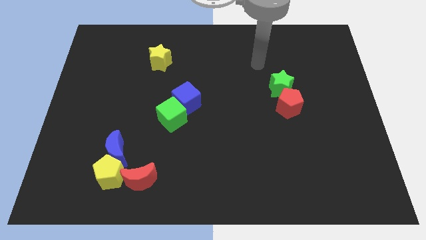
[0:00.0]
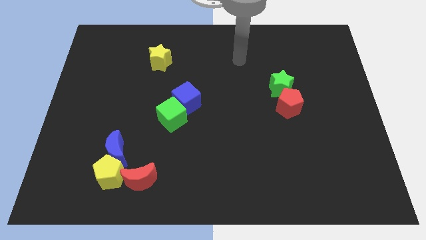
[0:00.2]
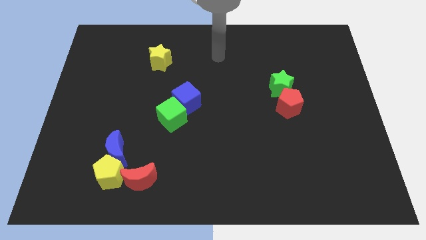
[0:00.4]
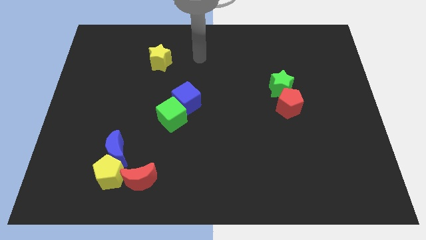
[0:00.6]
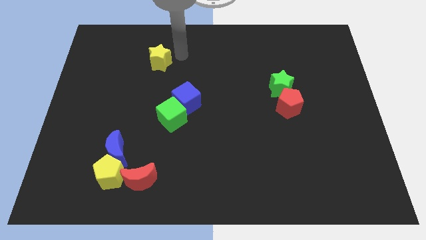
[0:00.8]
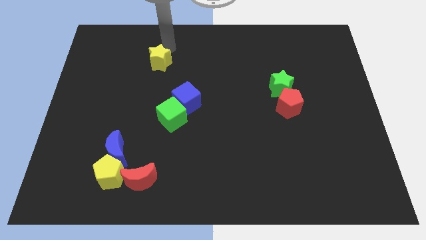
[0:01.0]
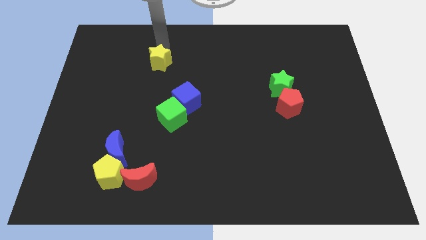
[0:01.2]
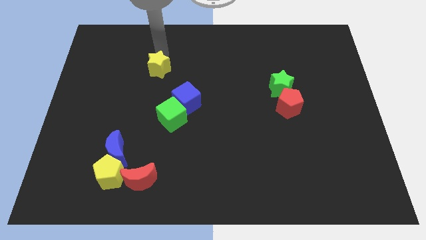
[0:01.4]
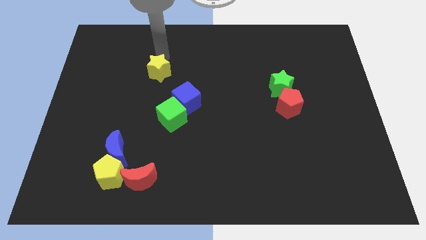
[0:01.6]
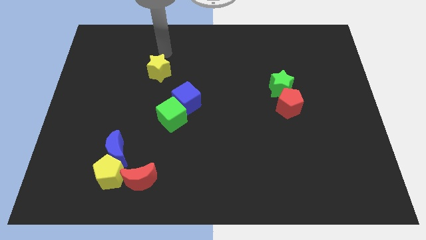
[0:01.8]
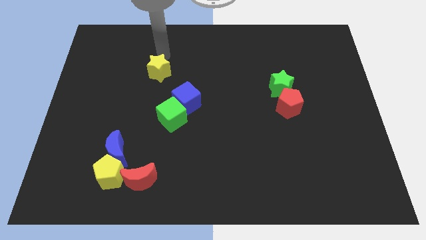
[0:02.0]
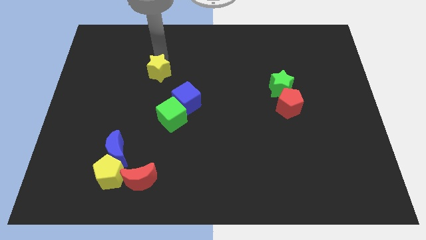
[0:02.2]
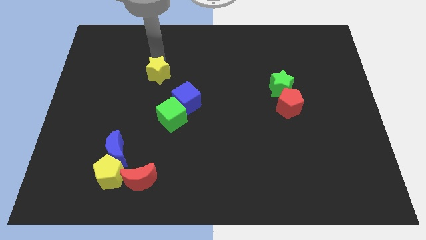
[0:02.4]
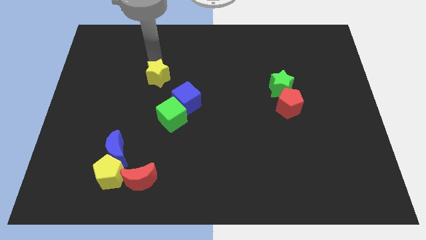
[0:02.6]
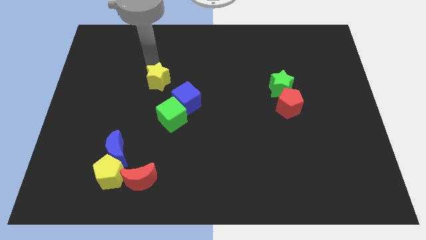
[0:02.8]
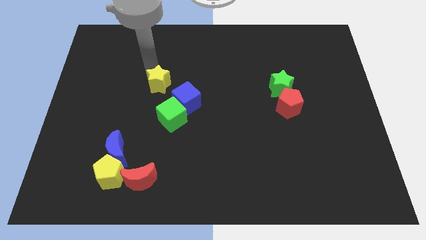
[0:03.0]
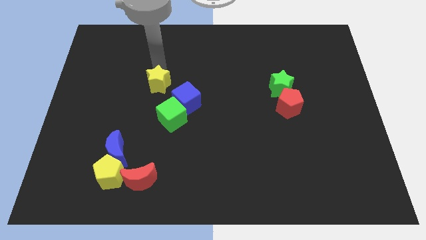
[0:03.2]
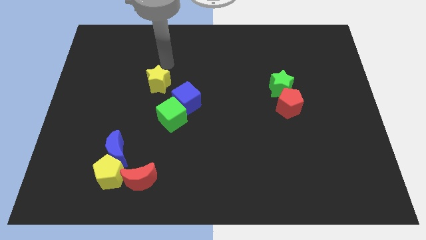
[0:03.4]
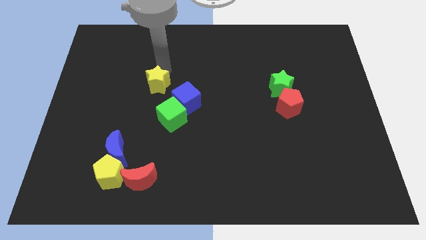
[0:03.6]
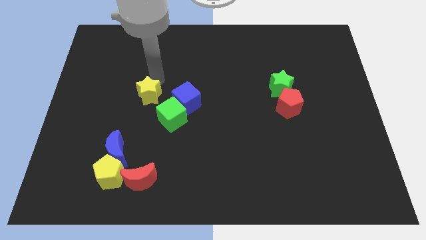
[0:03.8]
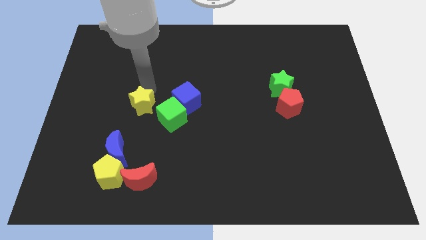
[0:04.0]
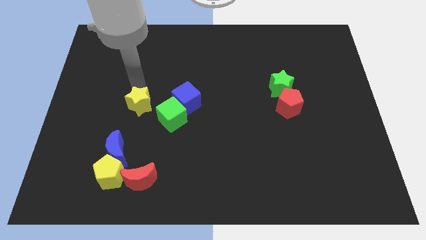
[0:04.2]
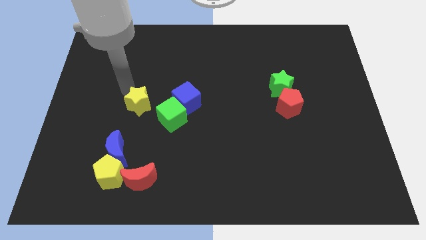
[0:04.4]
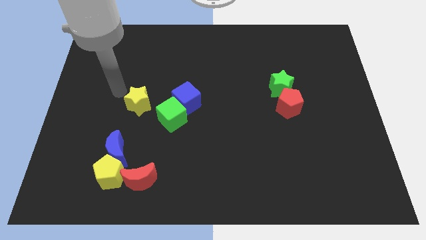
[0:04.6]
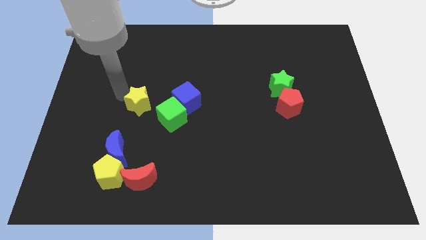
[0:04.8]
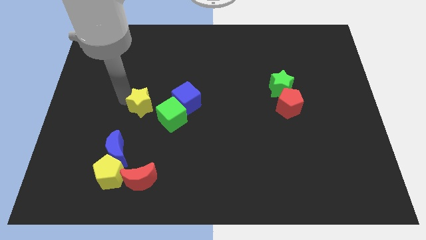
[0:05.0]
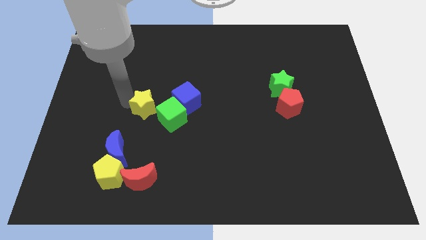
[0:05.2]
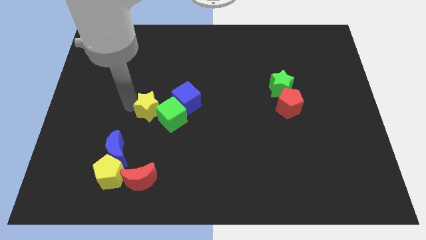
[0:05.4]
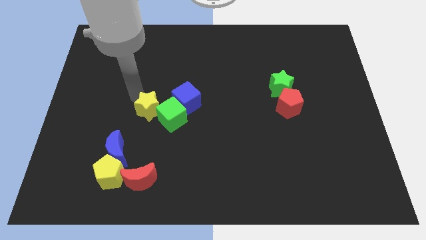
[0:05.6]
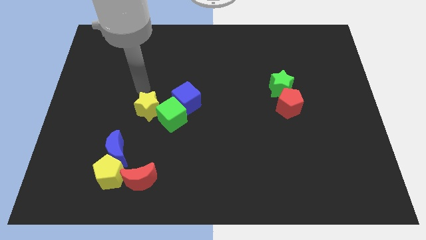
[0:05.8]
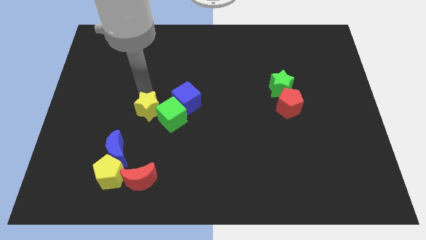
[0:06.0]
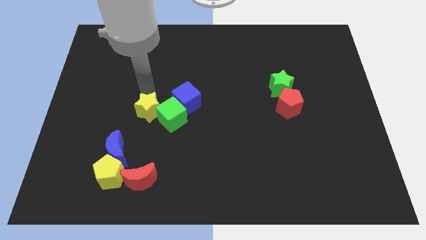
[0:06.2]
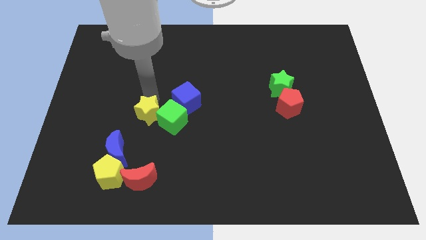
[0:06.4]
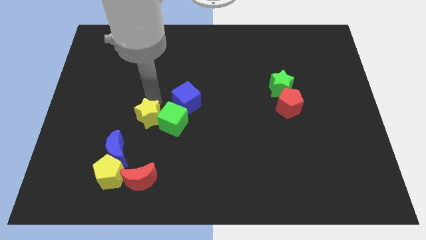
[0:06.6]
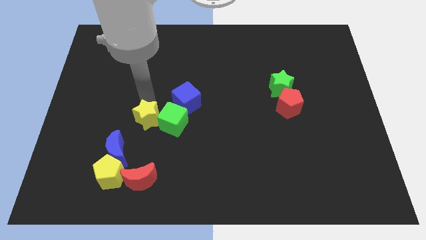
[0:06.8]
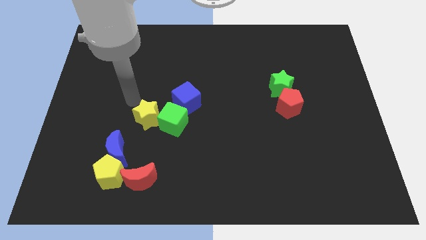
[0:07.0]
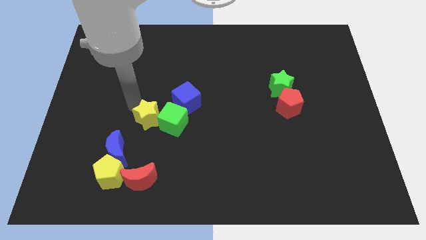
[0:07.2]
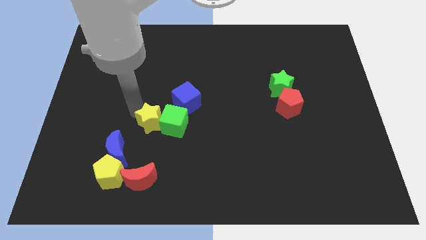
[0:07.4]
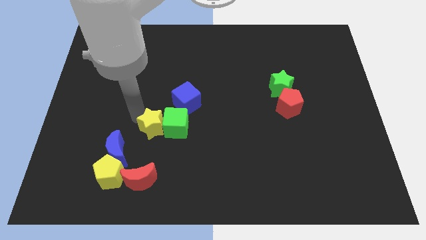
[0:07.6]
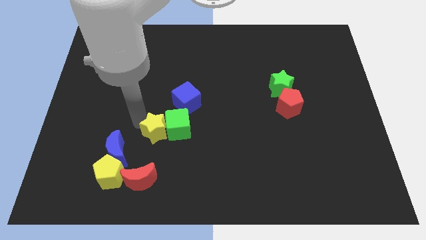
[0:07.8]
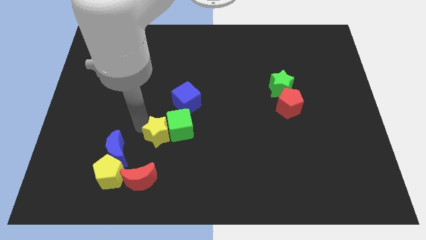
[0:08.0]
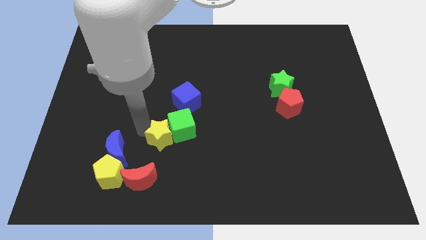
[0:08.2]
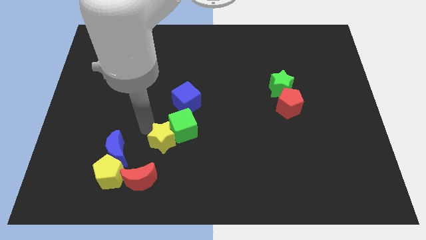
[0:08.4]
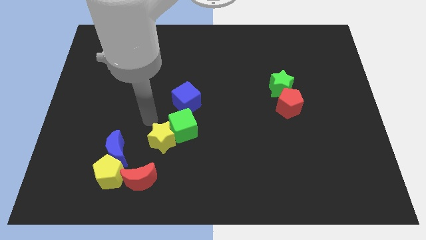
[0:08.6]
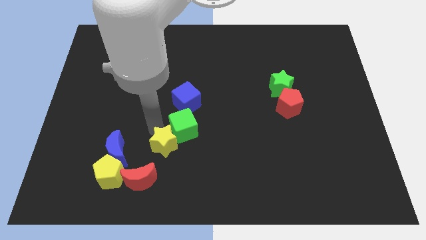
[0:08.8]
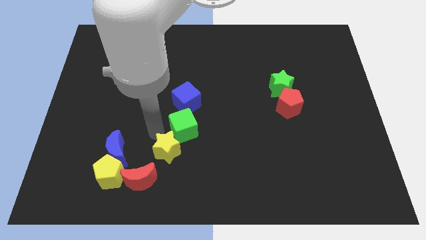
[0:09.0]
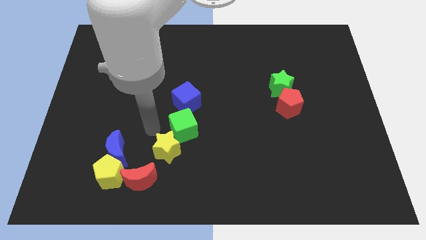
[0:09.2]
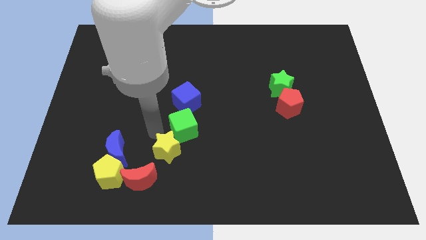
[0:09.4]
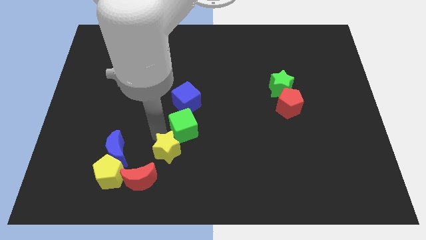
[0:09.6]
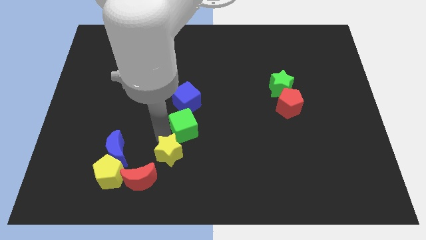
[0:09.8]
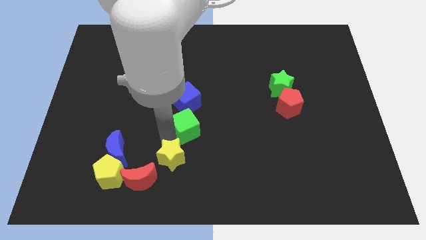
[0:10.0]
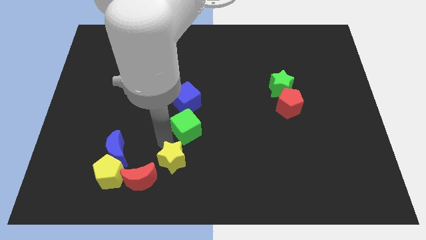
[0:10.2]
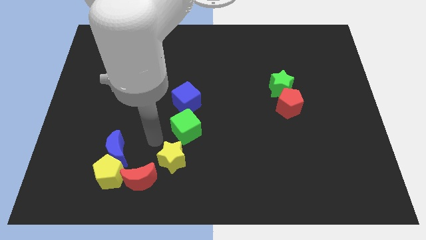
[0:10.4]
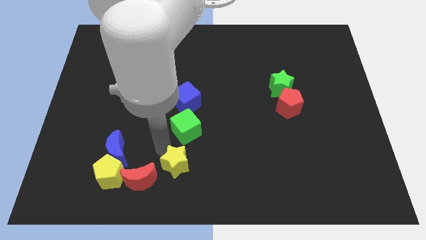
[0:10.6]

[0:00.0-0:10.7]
slide the yellow star to the bottom

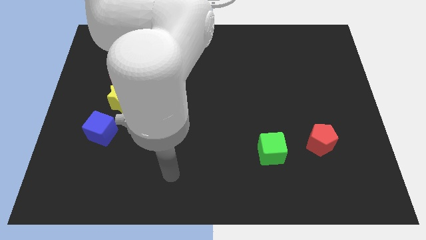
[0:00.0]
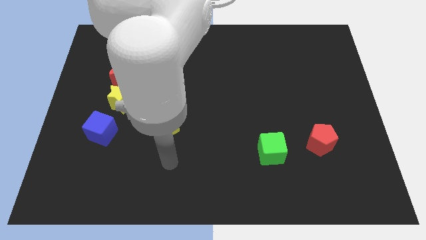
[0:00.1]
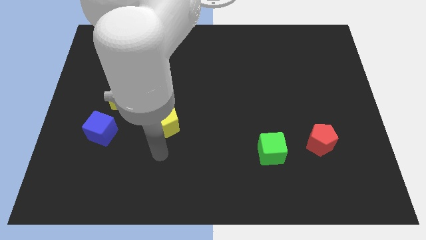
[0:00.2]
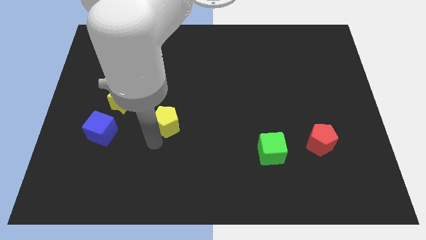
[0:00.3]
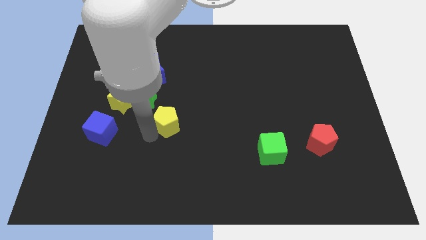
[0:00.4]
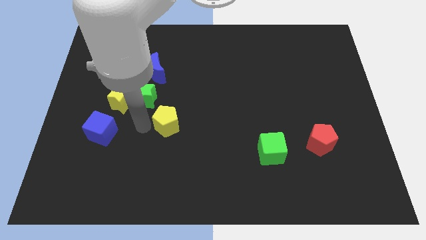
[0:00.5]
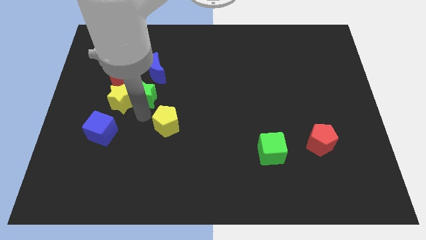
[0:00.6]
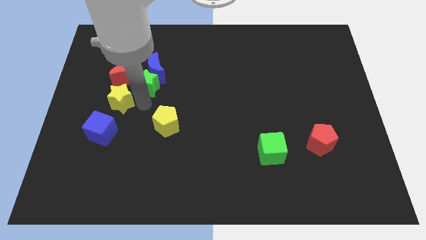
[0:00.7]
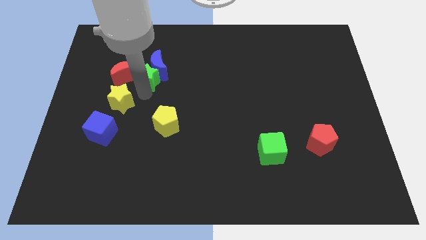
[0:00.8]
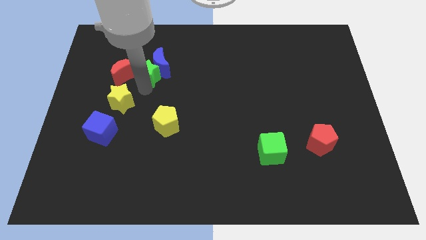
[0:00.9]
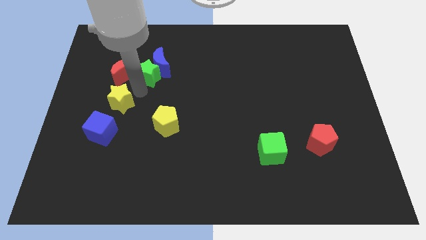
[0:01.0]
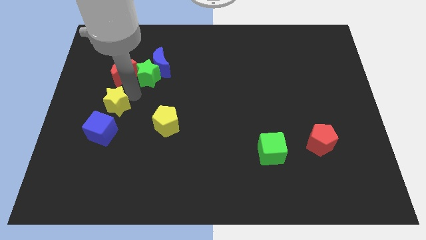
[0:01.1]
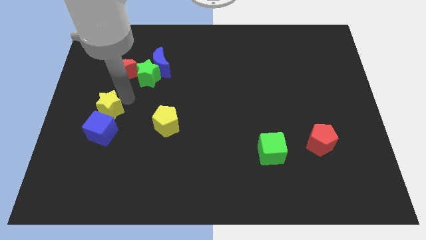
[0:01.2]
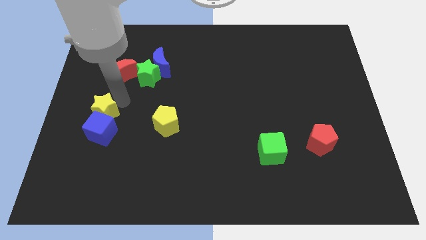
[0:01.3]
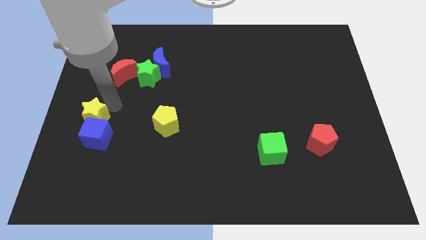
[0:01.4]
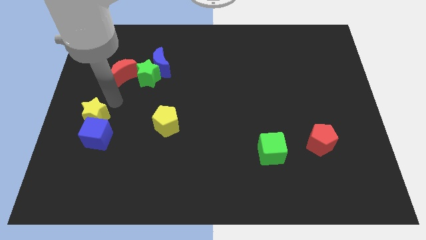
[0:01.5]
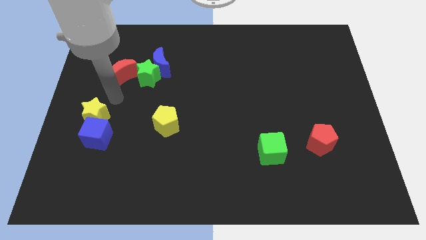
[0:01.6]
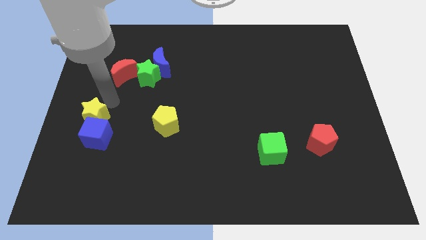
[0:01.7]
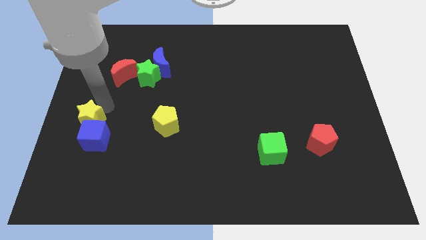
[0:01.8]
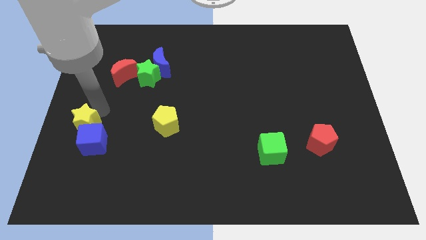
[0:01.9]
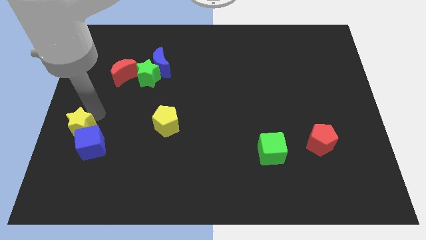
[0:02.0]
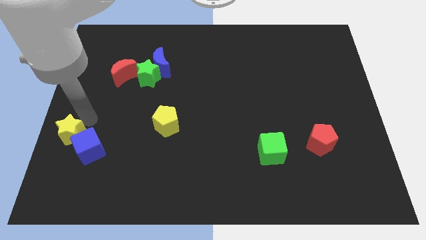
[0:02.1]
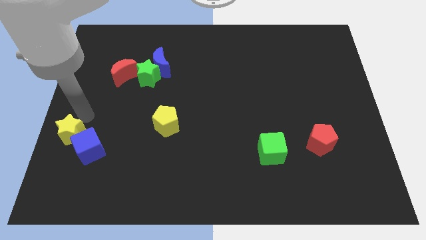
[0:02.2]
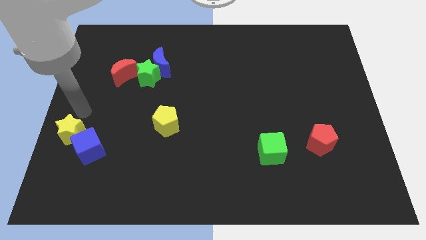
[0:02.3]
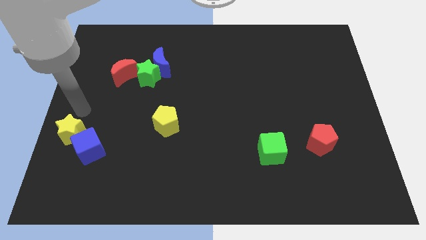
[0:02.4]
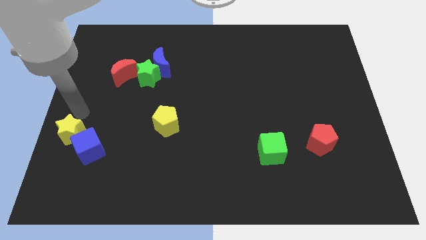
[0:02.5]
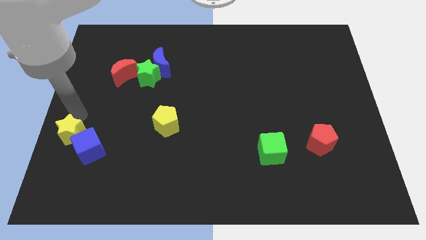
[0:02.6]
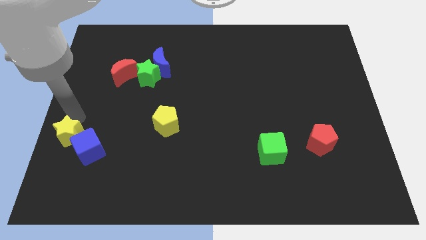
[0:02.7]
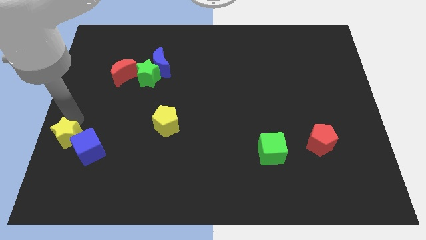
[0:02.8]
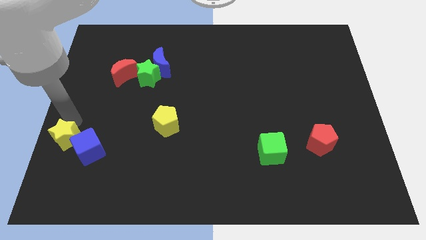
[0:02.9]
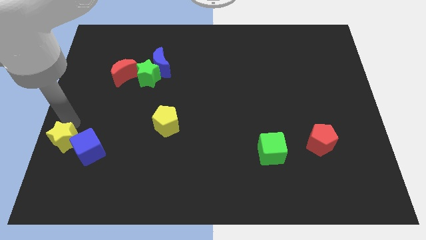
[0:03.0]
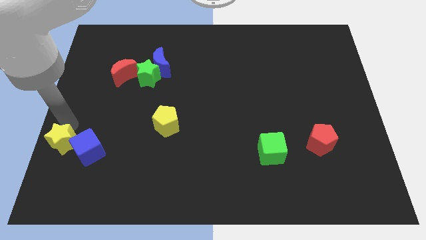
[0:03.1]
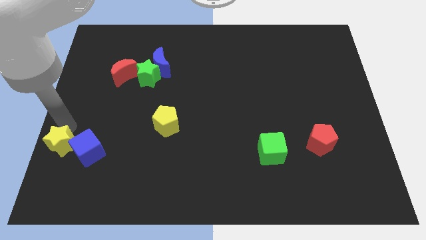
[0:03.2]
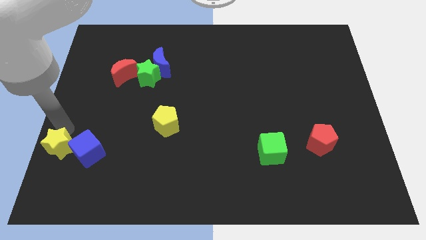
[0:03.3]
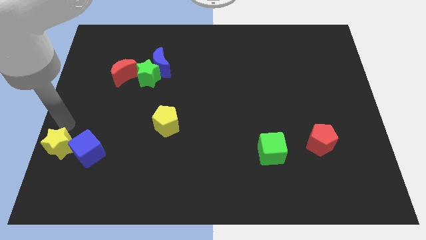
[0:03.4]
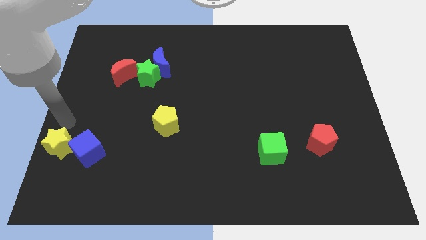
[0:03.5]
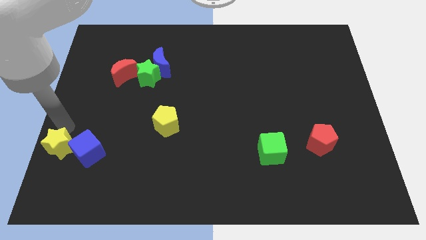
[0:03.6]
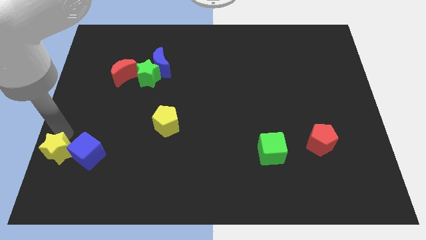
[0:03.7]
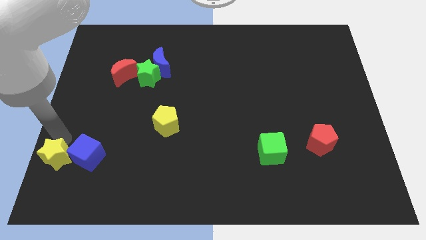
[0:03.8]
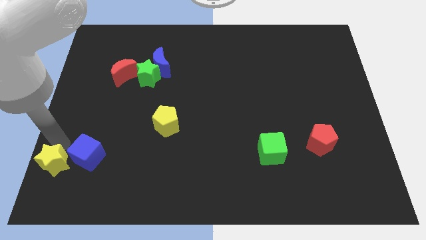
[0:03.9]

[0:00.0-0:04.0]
move the yellow star to the lower left corner
